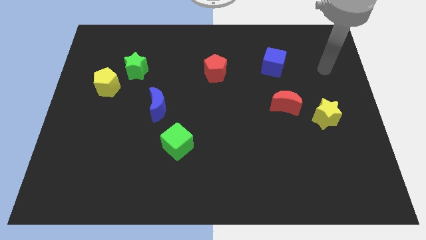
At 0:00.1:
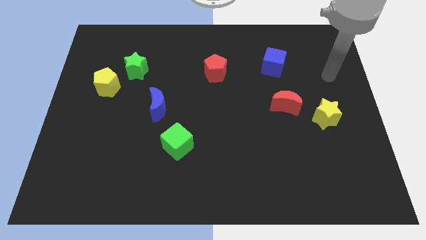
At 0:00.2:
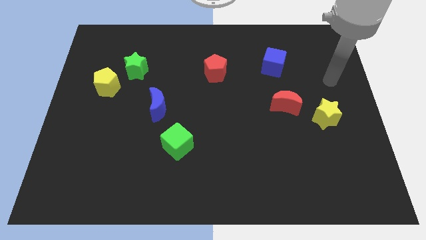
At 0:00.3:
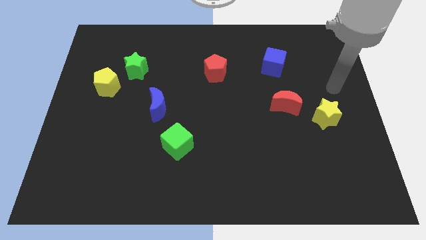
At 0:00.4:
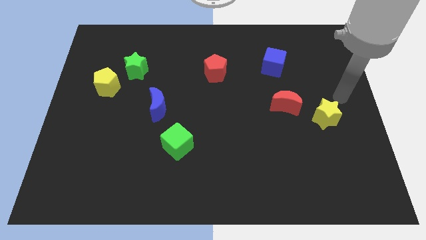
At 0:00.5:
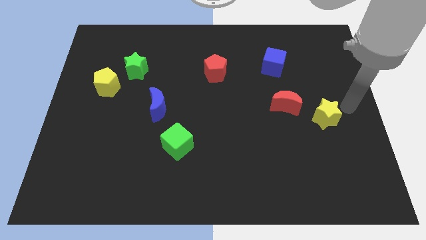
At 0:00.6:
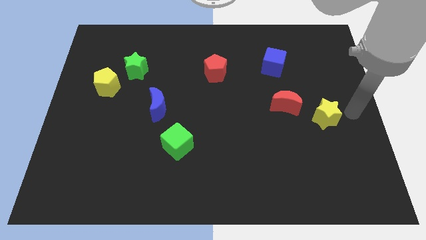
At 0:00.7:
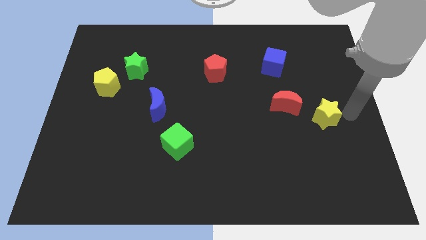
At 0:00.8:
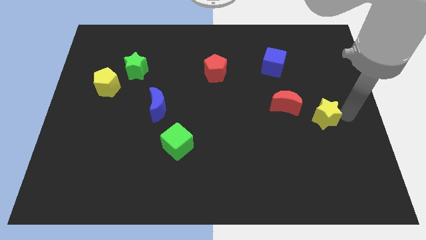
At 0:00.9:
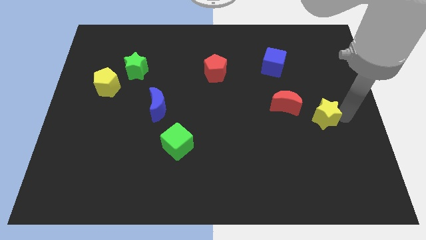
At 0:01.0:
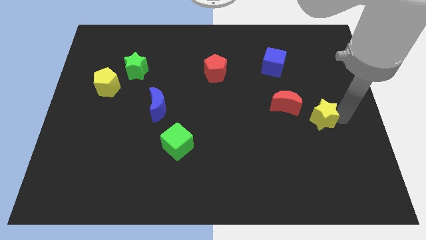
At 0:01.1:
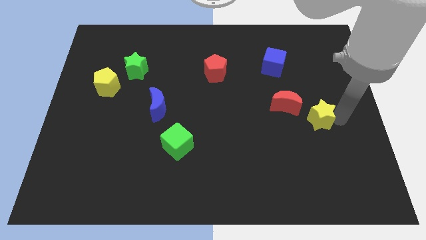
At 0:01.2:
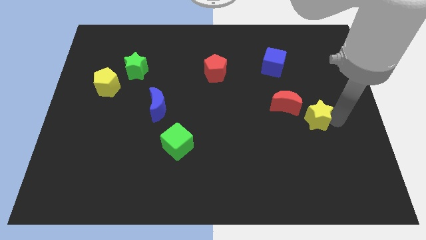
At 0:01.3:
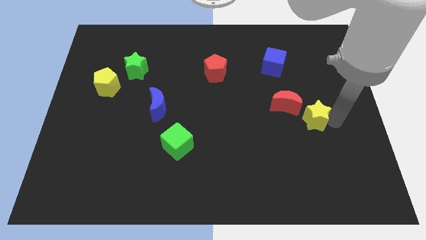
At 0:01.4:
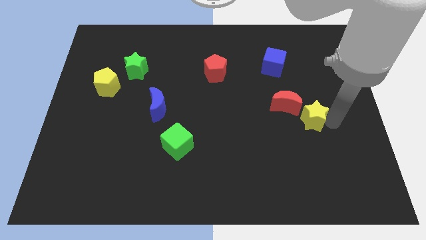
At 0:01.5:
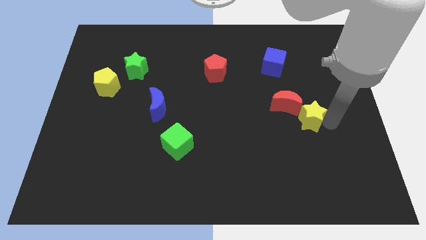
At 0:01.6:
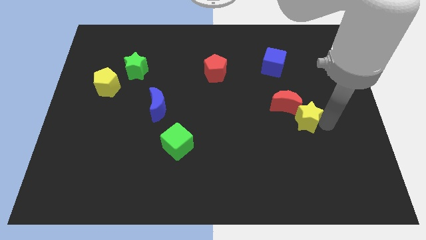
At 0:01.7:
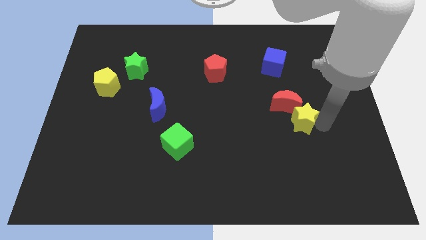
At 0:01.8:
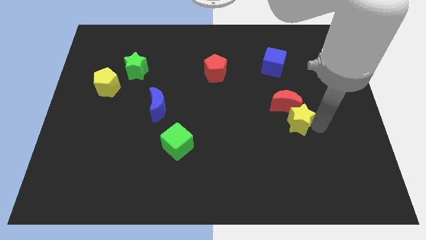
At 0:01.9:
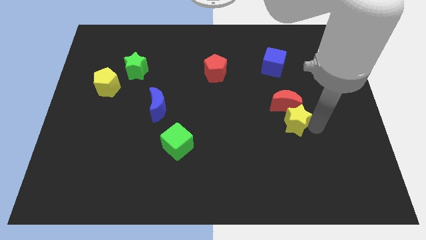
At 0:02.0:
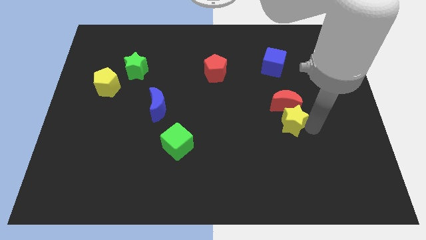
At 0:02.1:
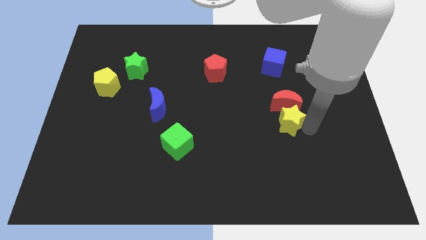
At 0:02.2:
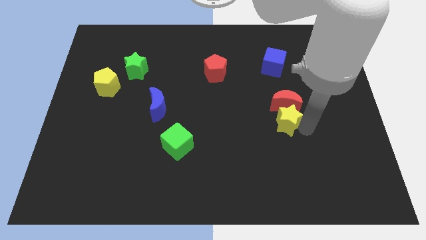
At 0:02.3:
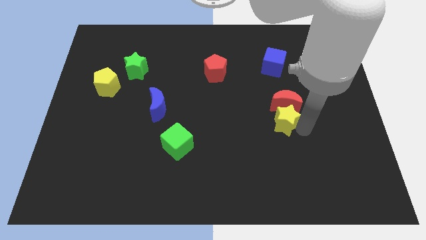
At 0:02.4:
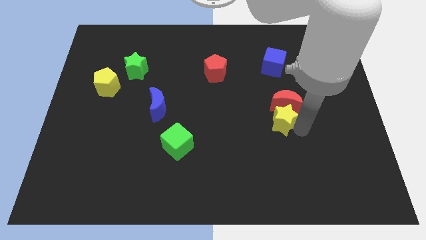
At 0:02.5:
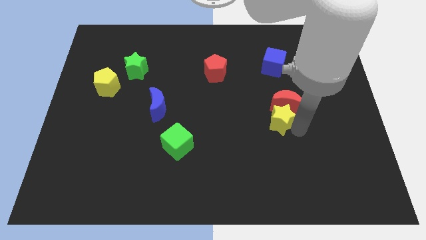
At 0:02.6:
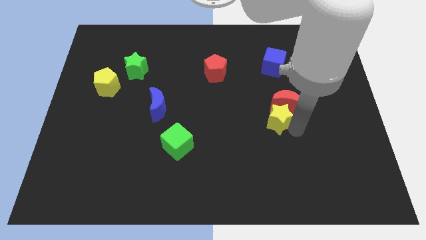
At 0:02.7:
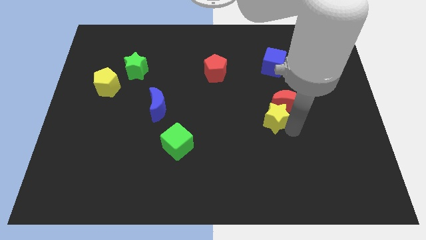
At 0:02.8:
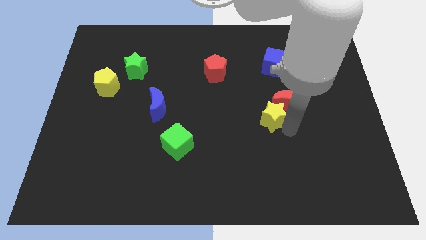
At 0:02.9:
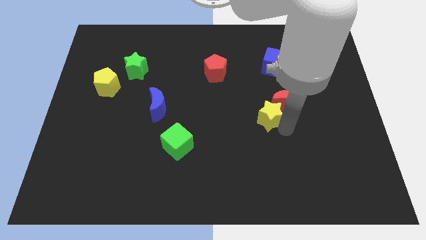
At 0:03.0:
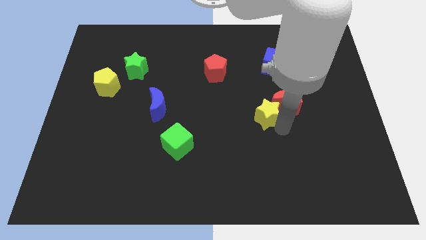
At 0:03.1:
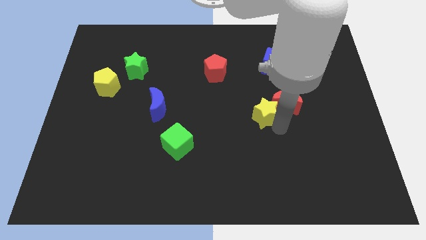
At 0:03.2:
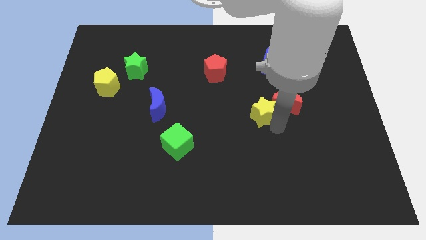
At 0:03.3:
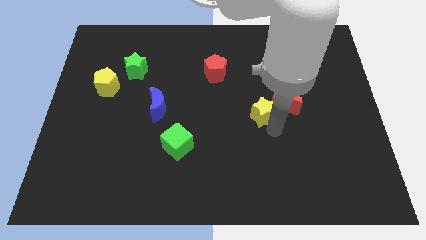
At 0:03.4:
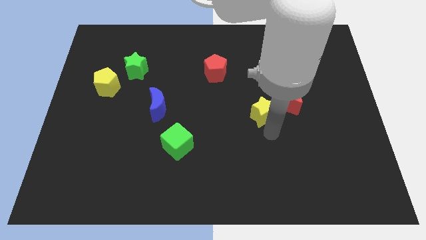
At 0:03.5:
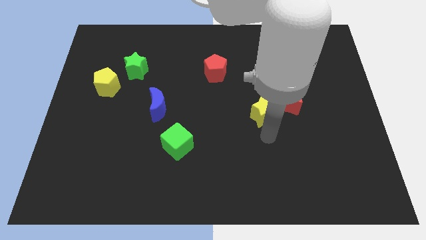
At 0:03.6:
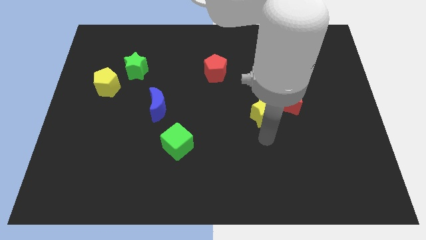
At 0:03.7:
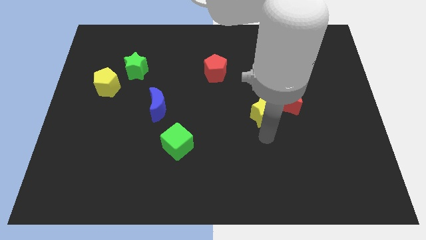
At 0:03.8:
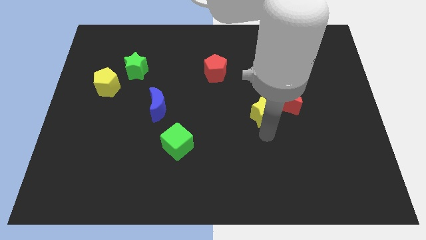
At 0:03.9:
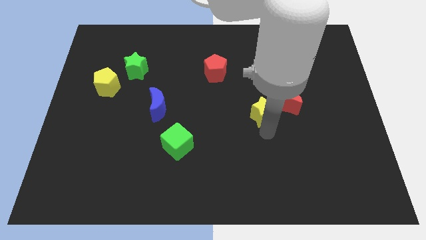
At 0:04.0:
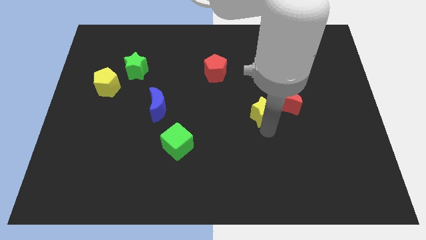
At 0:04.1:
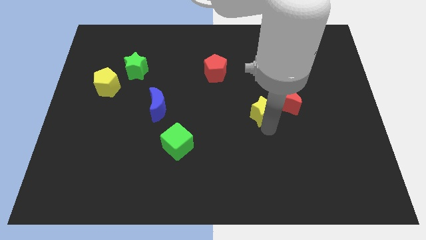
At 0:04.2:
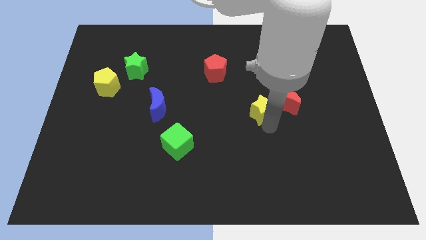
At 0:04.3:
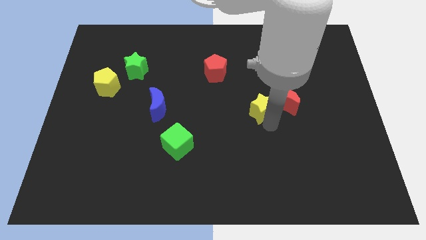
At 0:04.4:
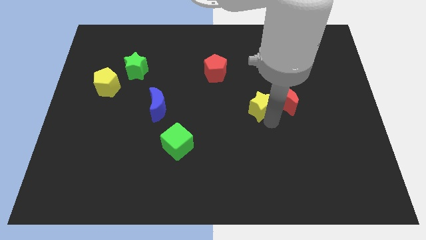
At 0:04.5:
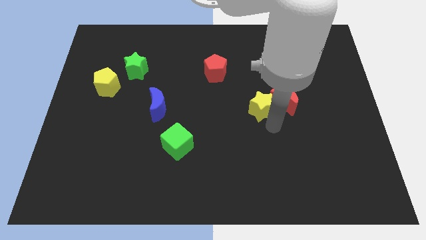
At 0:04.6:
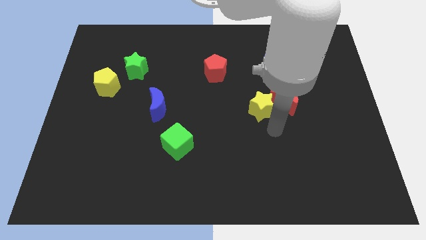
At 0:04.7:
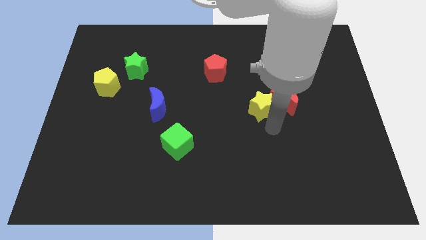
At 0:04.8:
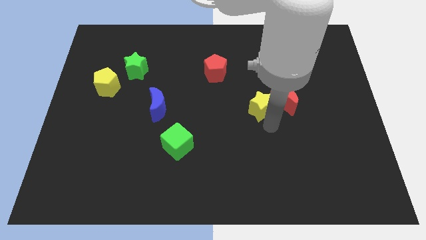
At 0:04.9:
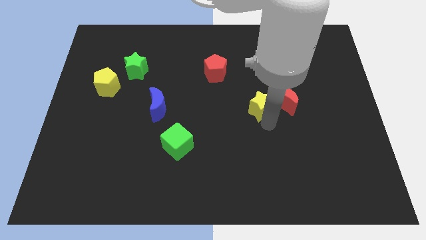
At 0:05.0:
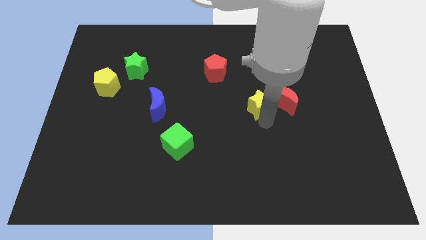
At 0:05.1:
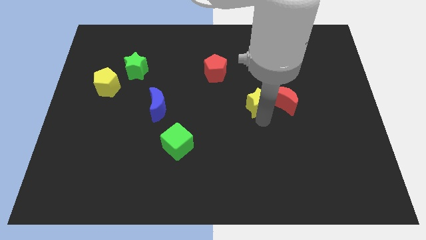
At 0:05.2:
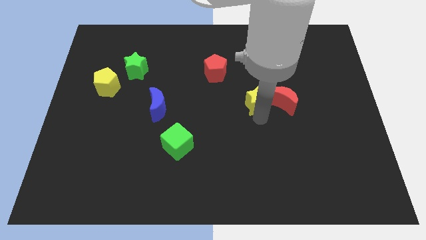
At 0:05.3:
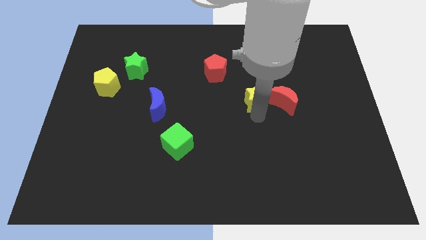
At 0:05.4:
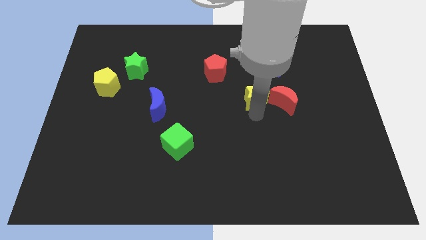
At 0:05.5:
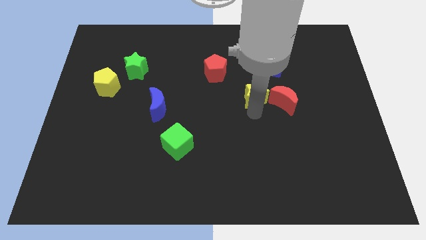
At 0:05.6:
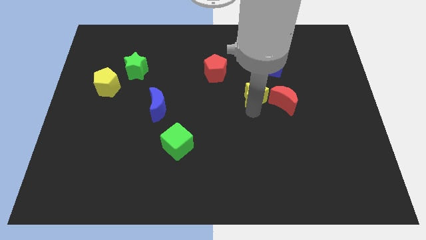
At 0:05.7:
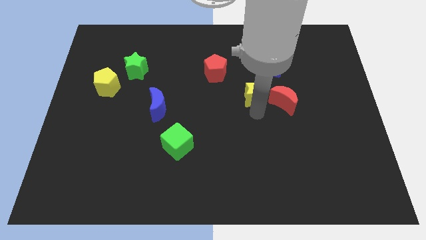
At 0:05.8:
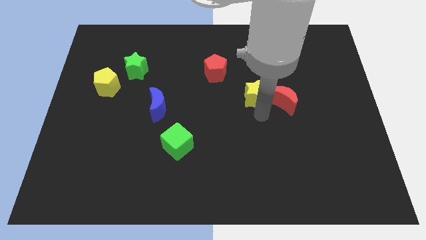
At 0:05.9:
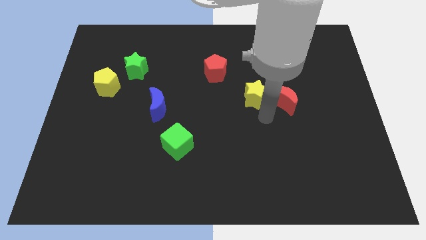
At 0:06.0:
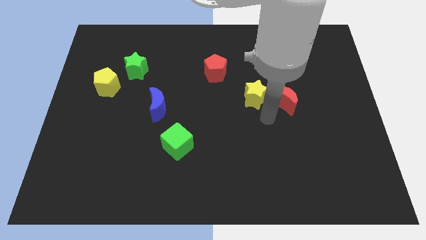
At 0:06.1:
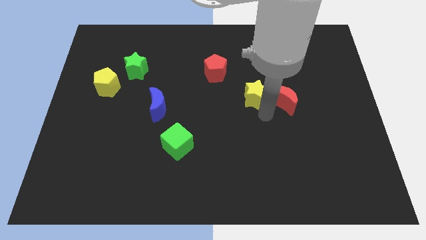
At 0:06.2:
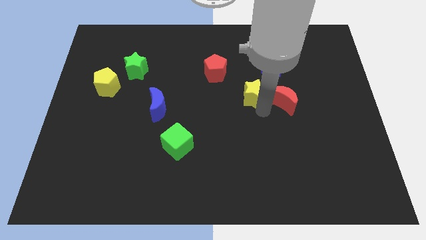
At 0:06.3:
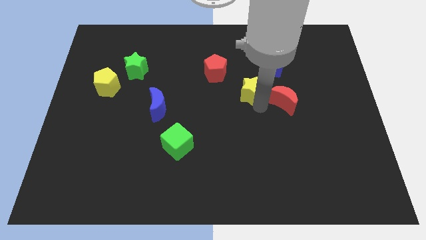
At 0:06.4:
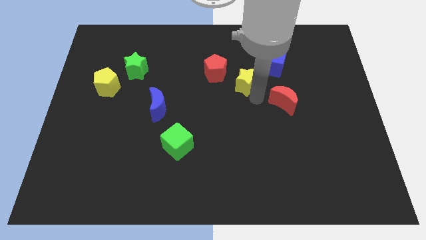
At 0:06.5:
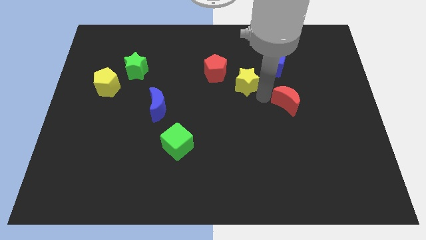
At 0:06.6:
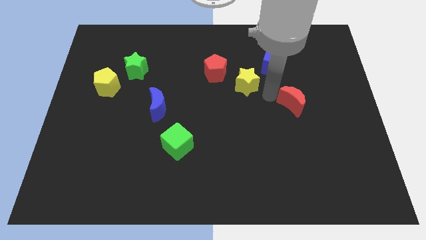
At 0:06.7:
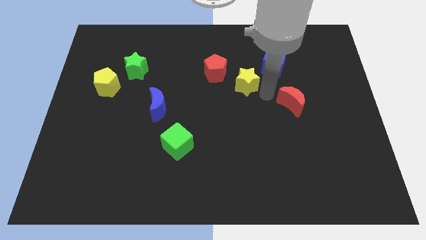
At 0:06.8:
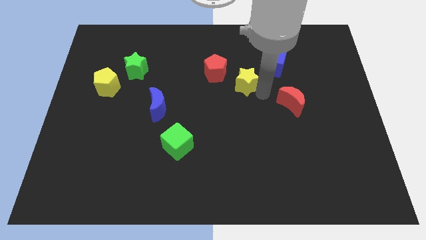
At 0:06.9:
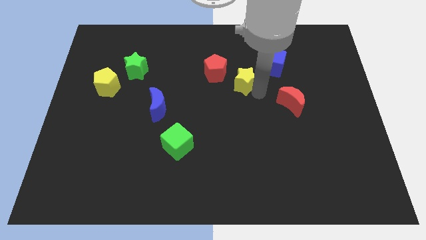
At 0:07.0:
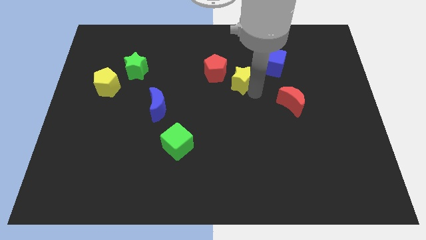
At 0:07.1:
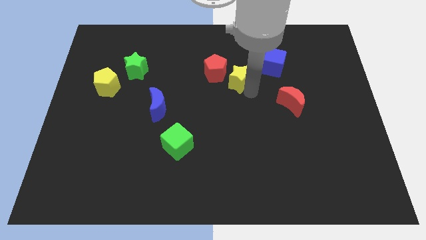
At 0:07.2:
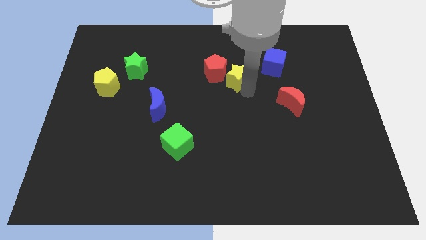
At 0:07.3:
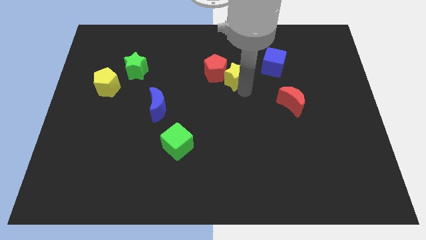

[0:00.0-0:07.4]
move the yellow star towards the red pentagon

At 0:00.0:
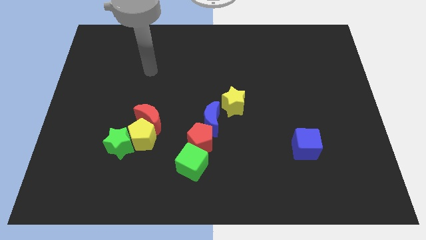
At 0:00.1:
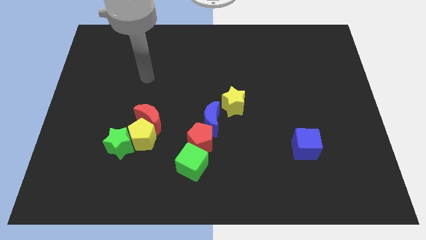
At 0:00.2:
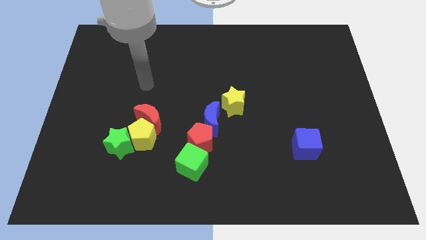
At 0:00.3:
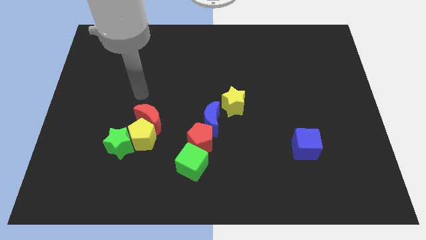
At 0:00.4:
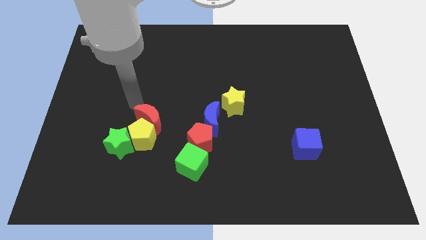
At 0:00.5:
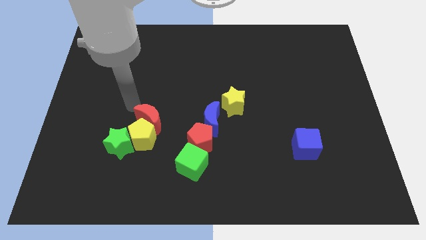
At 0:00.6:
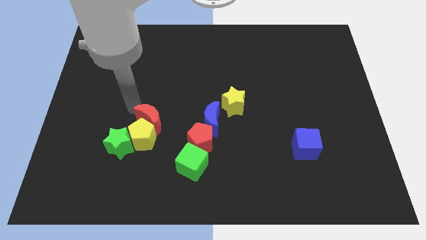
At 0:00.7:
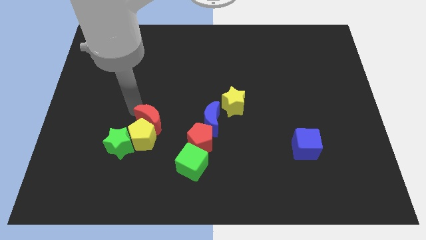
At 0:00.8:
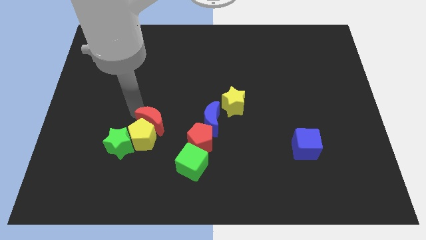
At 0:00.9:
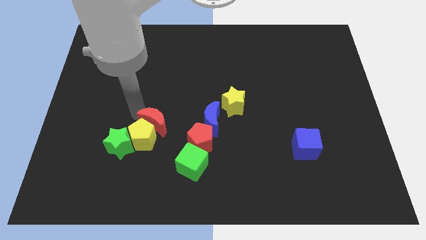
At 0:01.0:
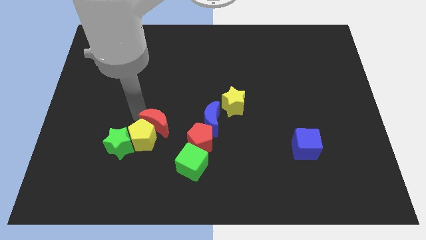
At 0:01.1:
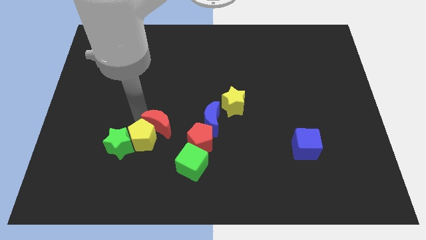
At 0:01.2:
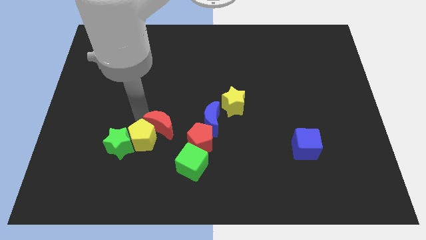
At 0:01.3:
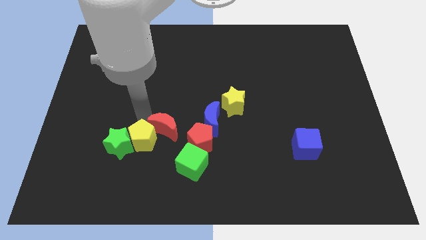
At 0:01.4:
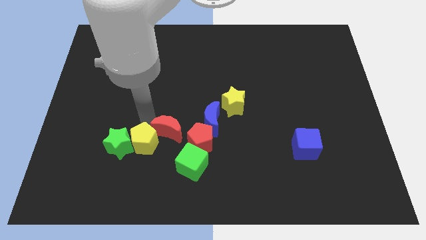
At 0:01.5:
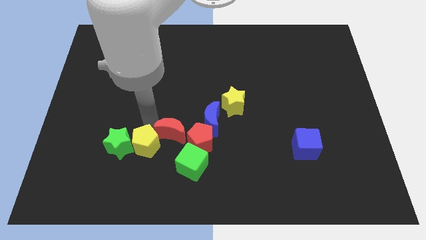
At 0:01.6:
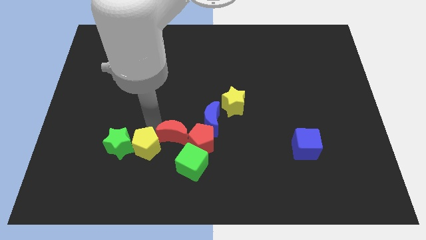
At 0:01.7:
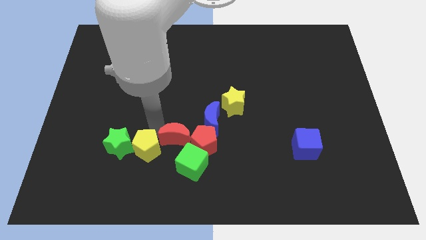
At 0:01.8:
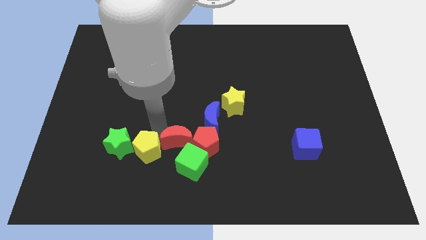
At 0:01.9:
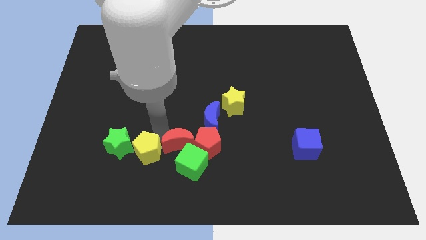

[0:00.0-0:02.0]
slide the red moon next to the green cube
